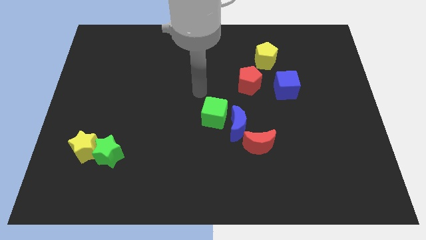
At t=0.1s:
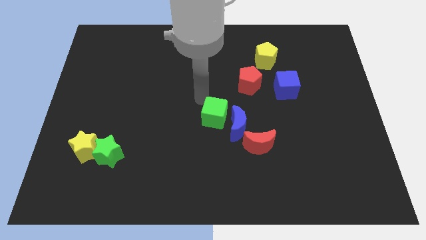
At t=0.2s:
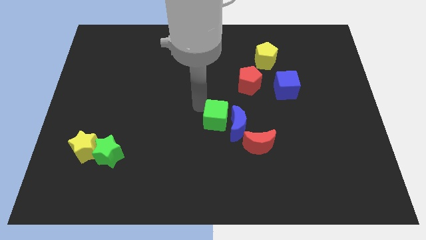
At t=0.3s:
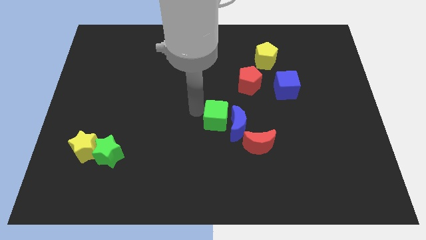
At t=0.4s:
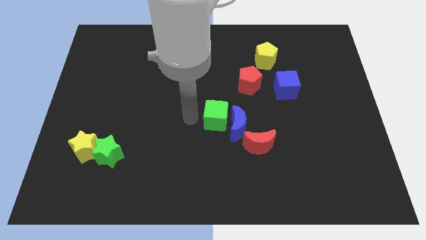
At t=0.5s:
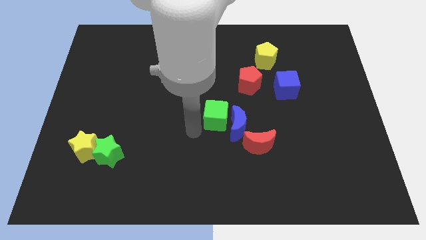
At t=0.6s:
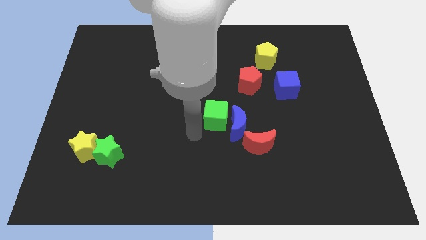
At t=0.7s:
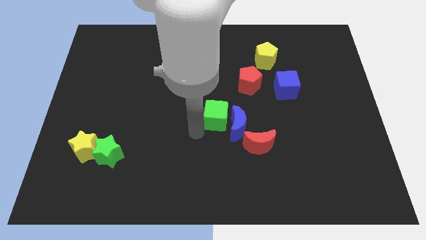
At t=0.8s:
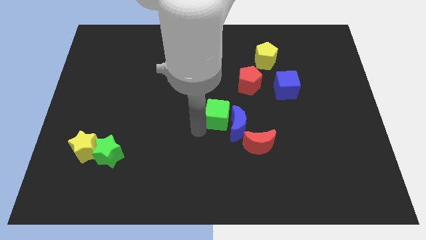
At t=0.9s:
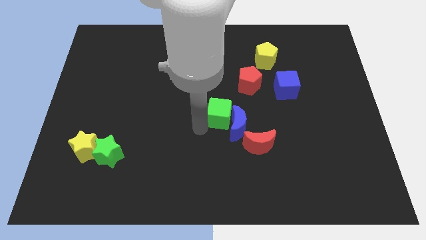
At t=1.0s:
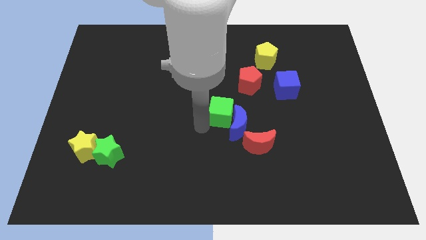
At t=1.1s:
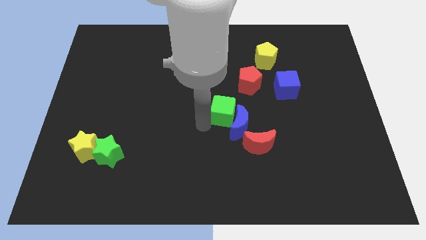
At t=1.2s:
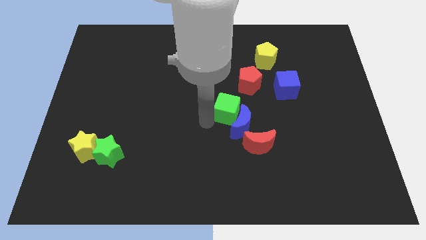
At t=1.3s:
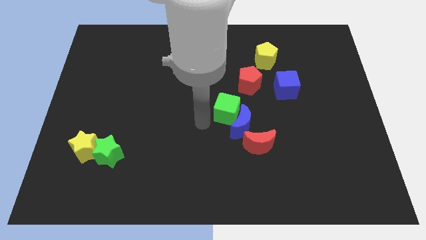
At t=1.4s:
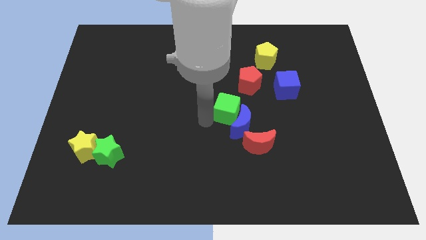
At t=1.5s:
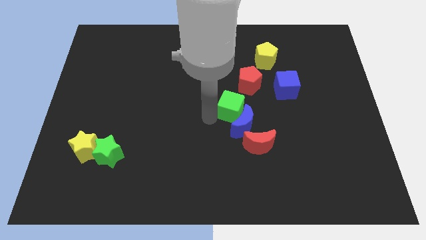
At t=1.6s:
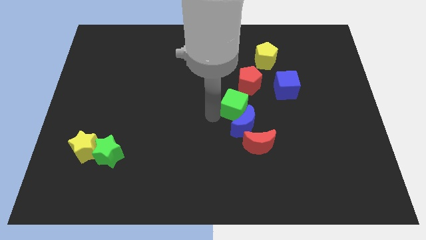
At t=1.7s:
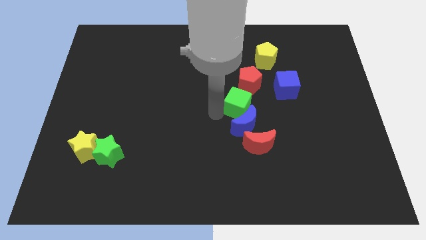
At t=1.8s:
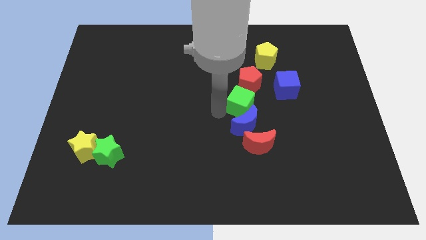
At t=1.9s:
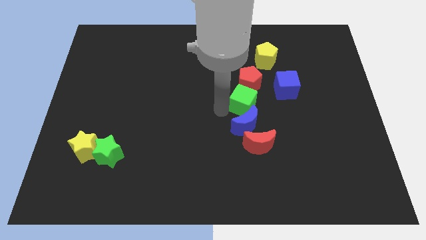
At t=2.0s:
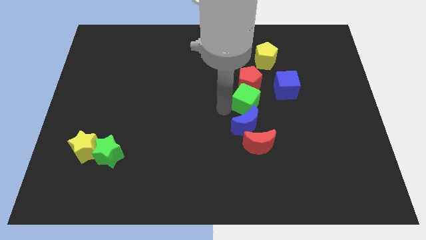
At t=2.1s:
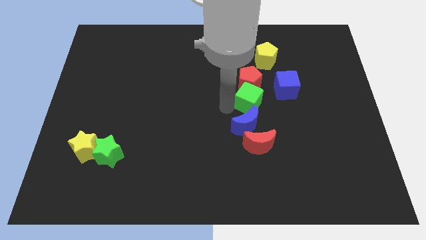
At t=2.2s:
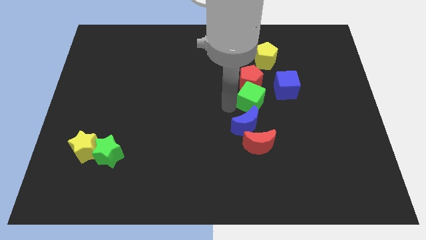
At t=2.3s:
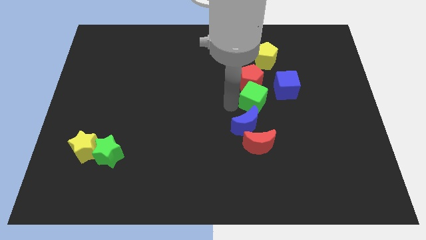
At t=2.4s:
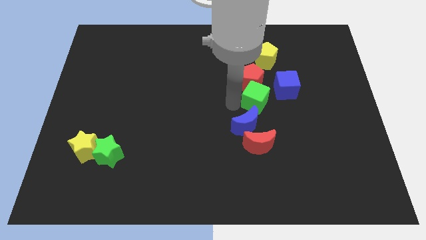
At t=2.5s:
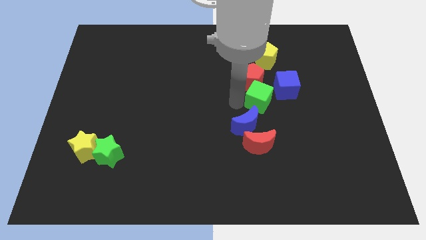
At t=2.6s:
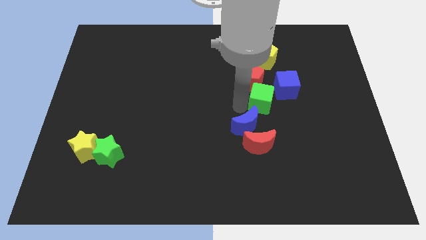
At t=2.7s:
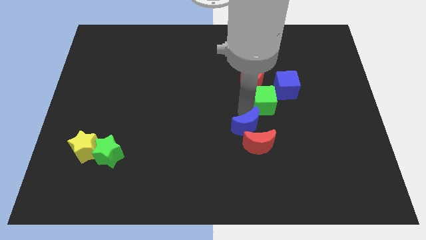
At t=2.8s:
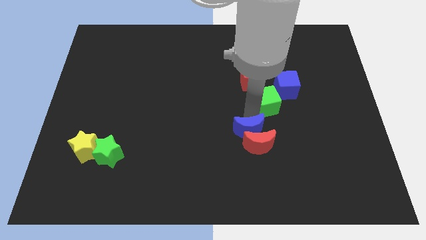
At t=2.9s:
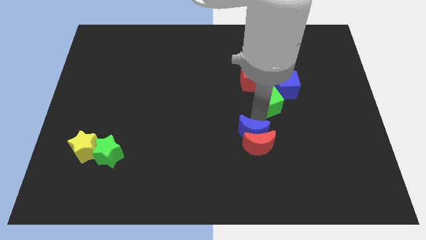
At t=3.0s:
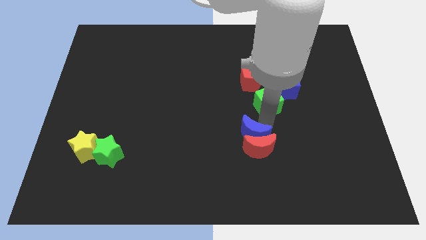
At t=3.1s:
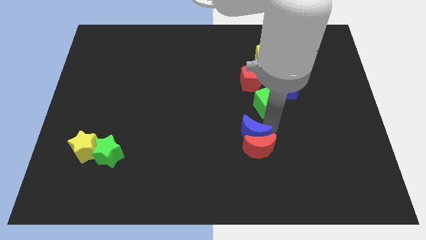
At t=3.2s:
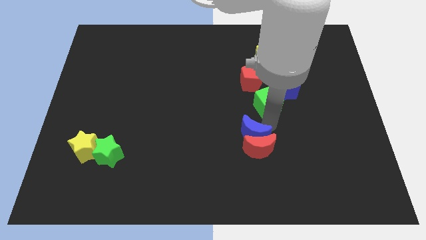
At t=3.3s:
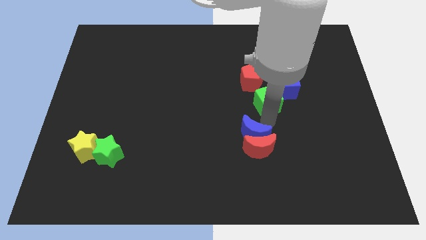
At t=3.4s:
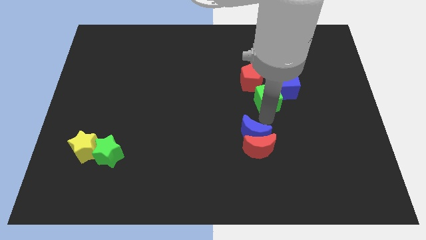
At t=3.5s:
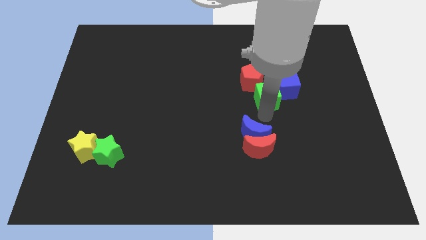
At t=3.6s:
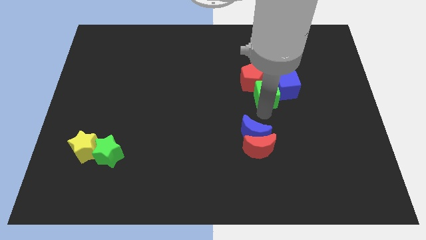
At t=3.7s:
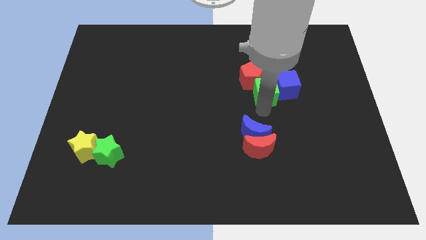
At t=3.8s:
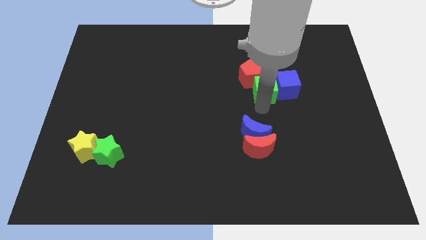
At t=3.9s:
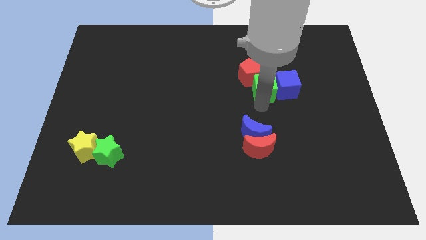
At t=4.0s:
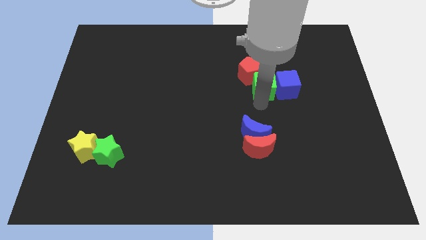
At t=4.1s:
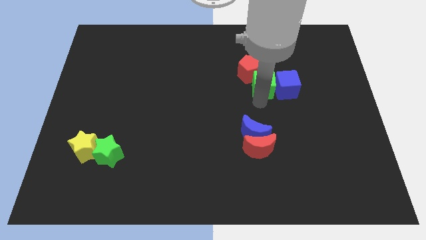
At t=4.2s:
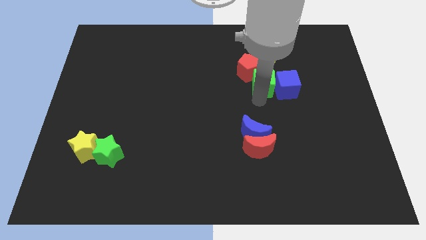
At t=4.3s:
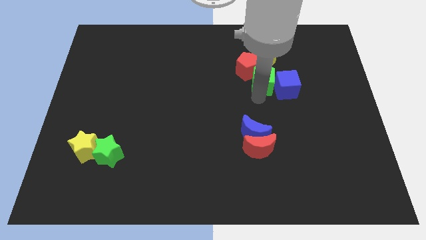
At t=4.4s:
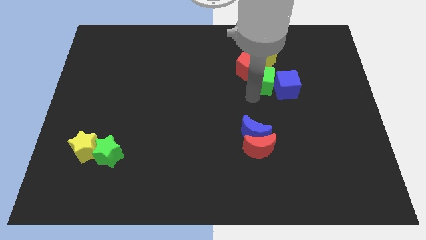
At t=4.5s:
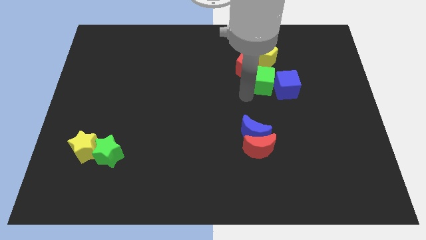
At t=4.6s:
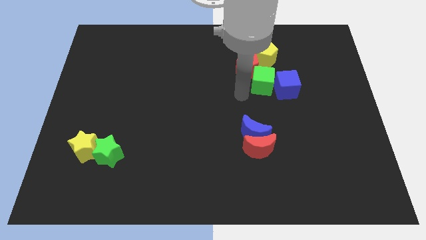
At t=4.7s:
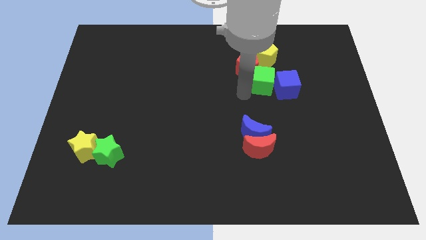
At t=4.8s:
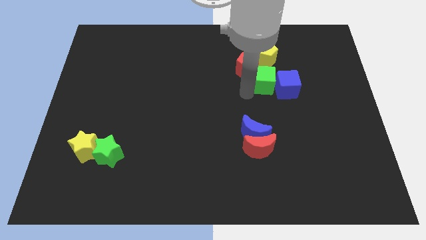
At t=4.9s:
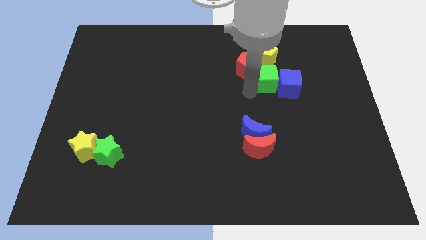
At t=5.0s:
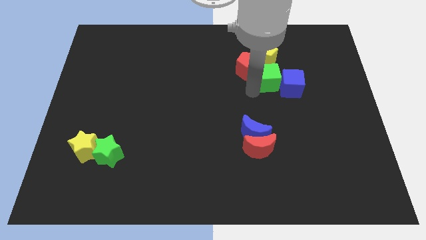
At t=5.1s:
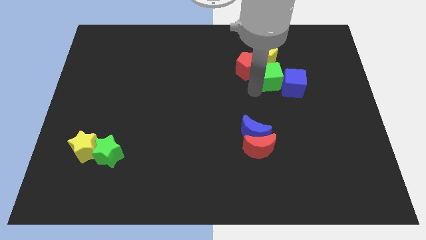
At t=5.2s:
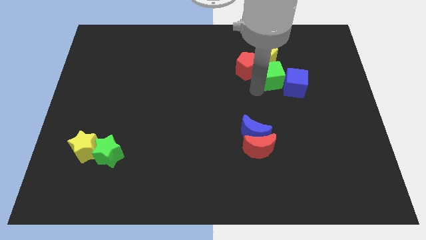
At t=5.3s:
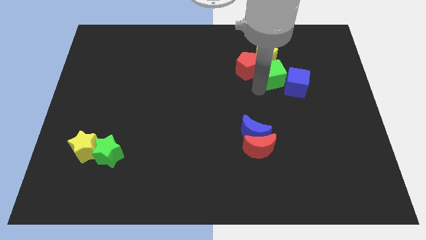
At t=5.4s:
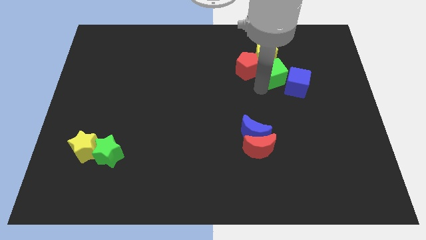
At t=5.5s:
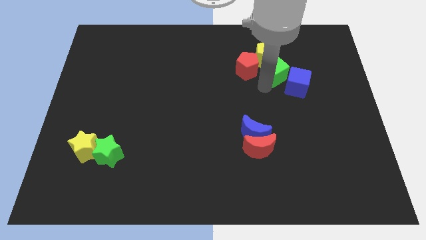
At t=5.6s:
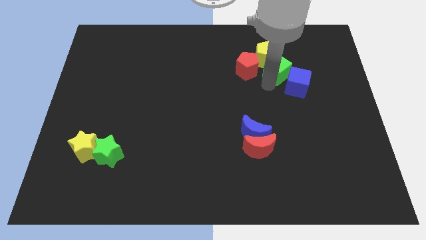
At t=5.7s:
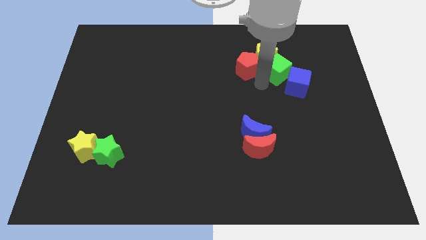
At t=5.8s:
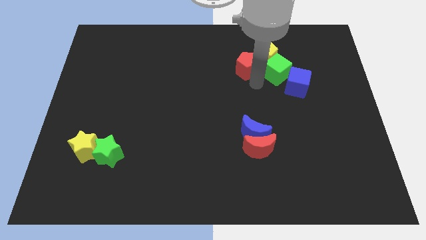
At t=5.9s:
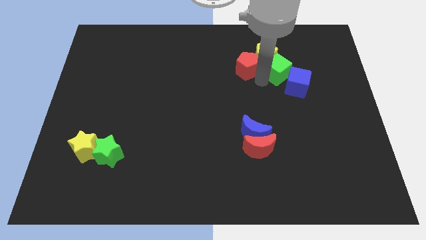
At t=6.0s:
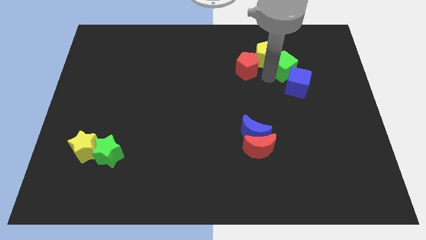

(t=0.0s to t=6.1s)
move the green cube just right of the yellow pentagon

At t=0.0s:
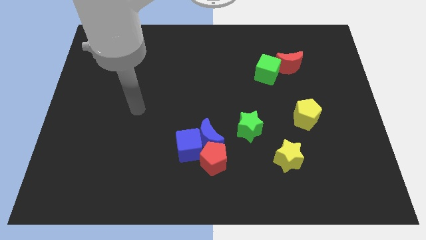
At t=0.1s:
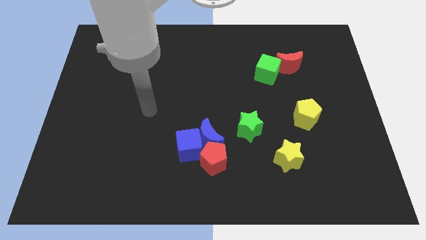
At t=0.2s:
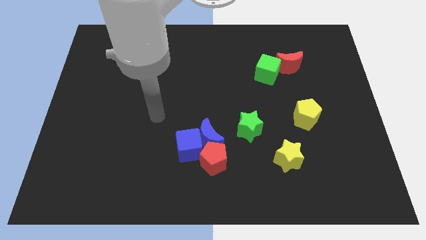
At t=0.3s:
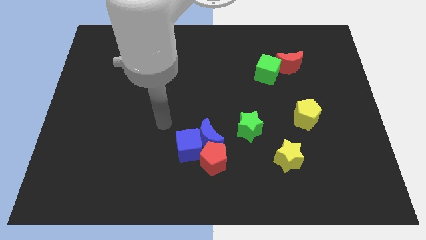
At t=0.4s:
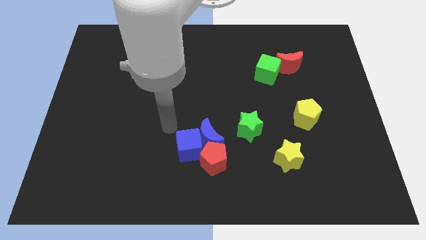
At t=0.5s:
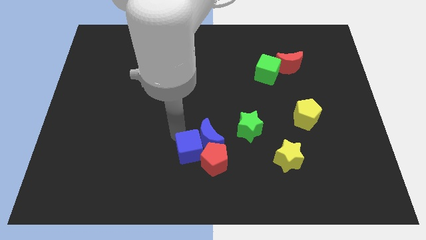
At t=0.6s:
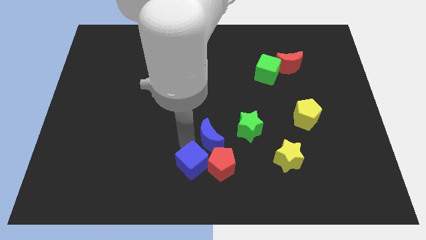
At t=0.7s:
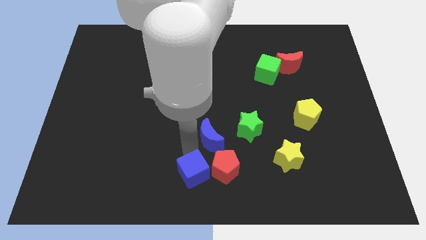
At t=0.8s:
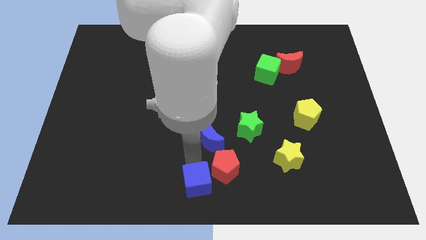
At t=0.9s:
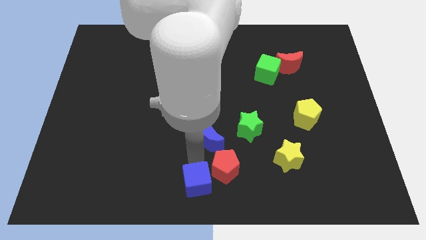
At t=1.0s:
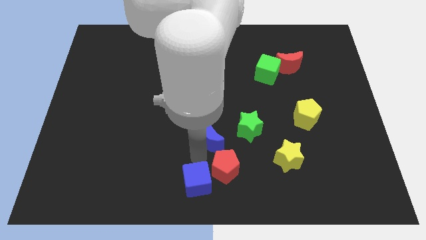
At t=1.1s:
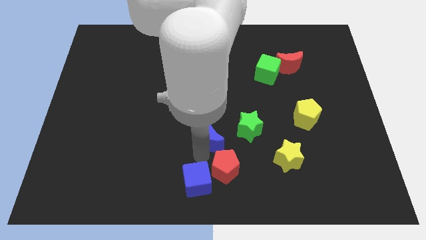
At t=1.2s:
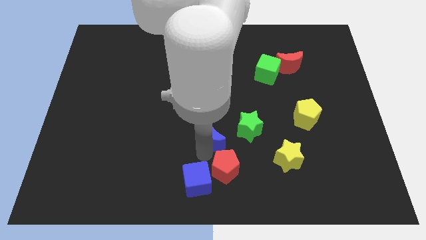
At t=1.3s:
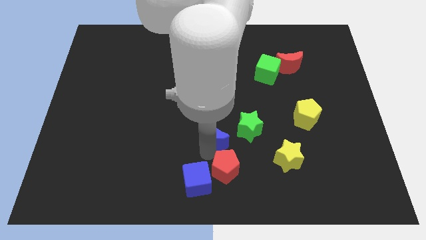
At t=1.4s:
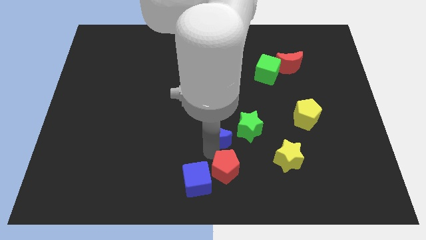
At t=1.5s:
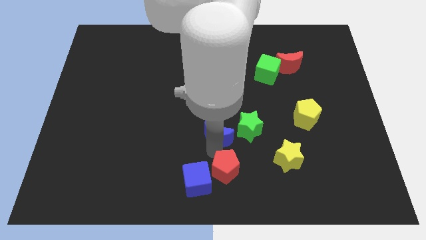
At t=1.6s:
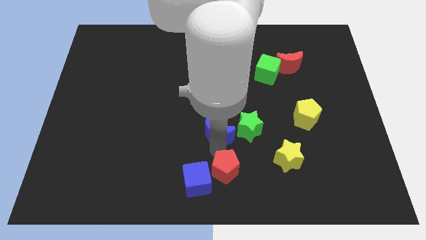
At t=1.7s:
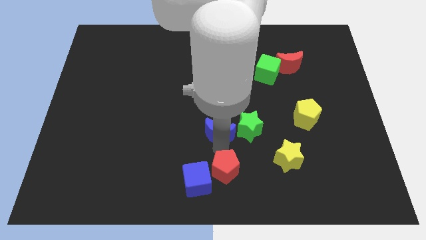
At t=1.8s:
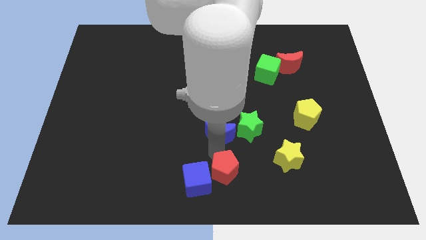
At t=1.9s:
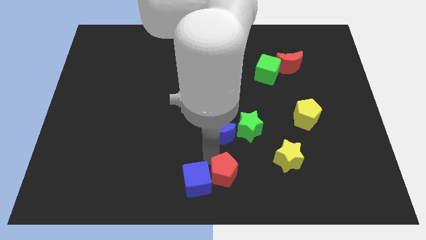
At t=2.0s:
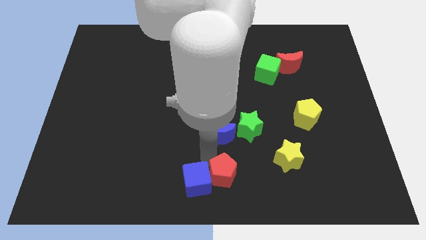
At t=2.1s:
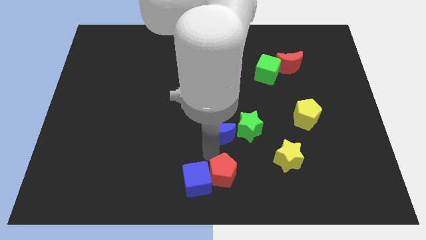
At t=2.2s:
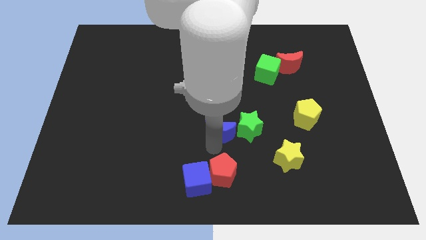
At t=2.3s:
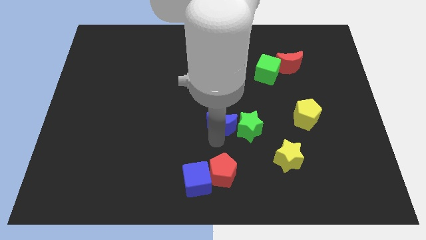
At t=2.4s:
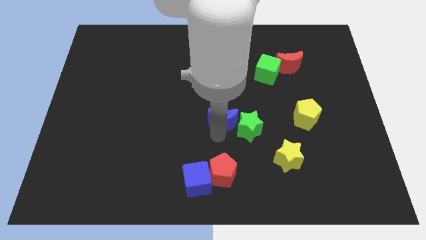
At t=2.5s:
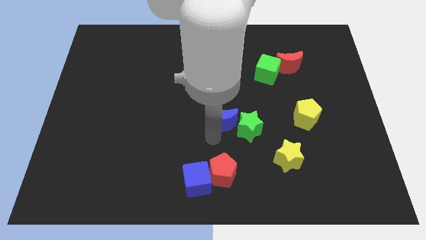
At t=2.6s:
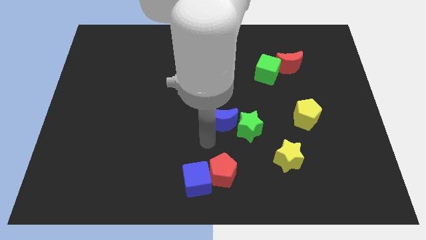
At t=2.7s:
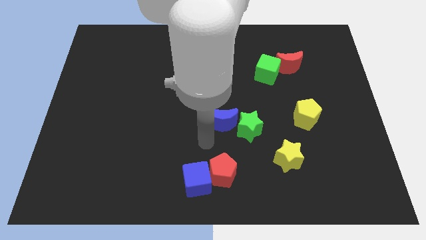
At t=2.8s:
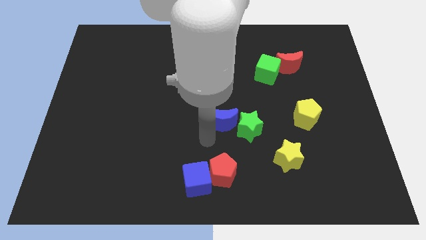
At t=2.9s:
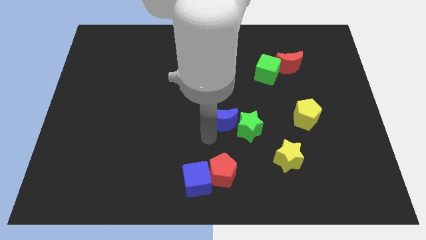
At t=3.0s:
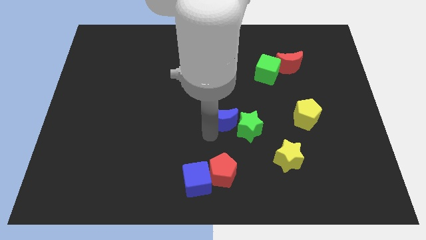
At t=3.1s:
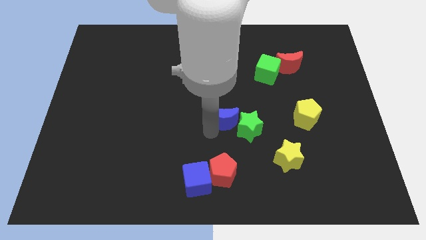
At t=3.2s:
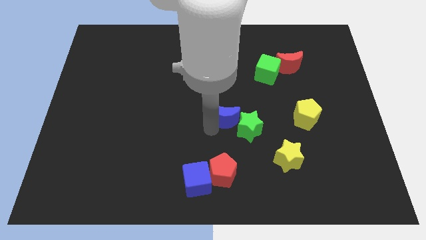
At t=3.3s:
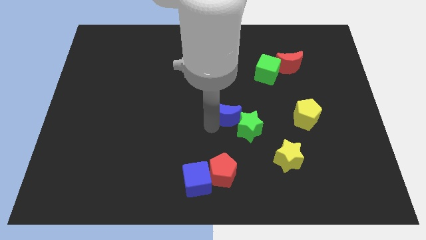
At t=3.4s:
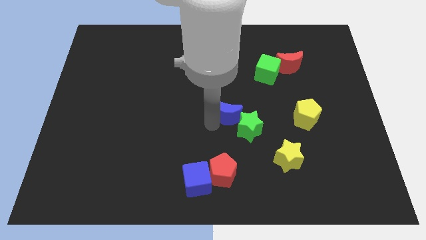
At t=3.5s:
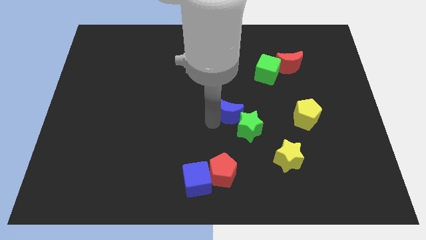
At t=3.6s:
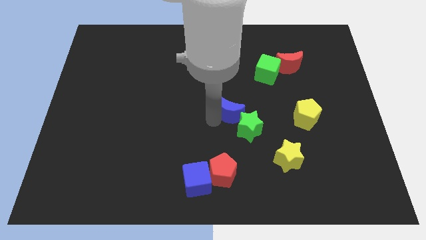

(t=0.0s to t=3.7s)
slide the blue moon to the top side of the green star
